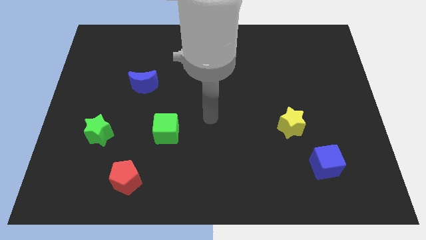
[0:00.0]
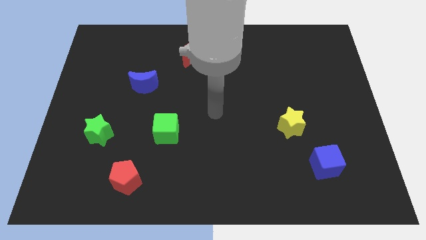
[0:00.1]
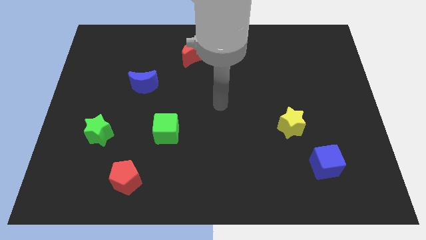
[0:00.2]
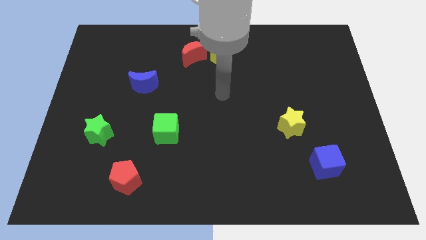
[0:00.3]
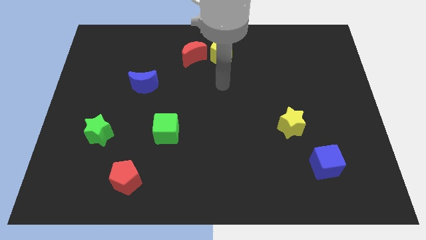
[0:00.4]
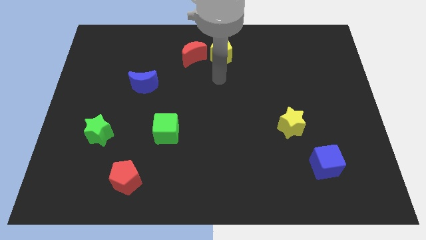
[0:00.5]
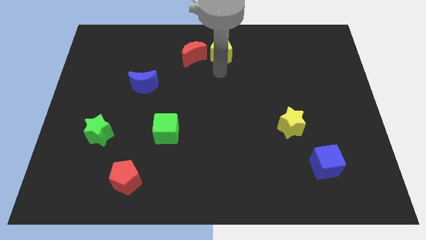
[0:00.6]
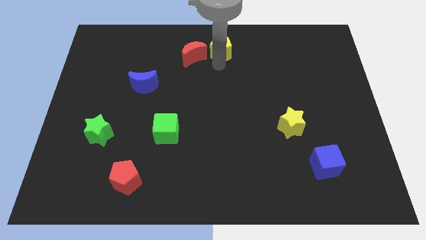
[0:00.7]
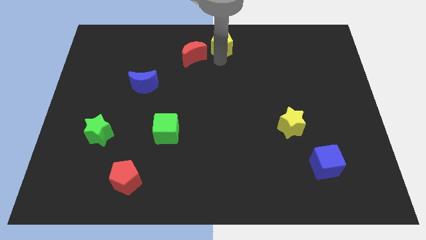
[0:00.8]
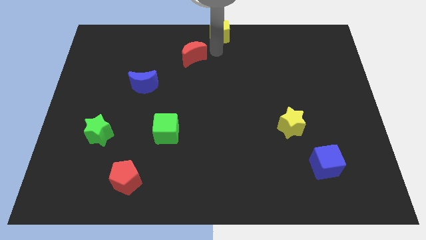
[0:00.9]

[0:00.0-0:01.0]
separate the red moon from the yellow pentagon

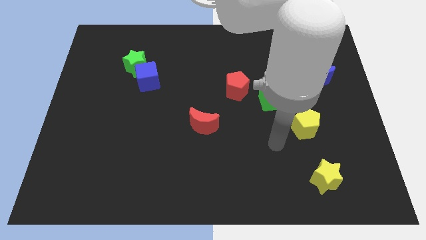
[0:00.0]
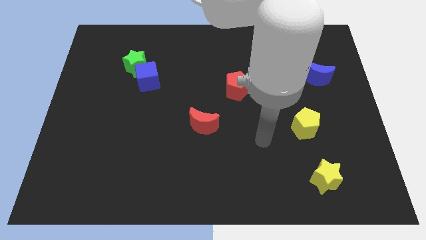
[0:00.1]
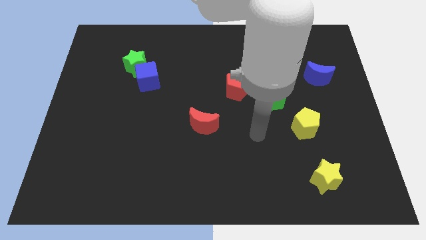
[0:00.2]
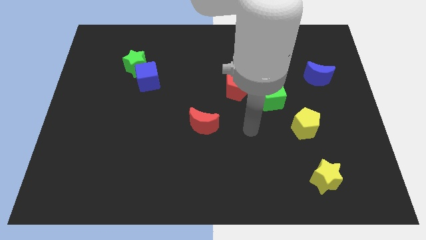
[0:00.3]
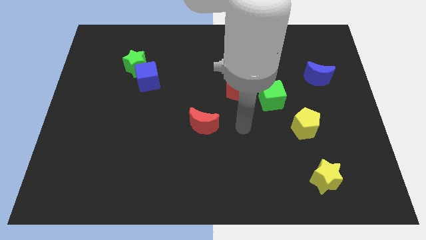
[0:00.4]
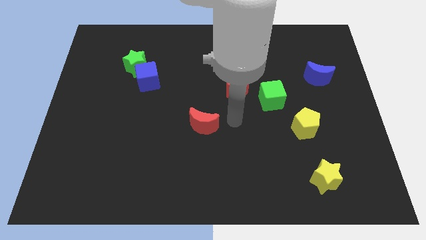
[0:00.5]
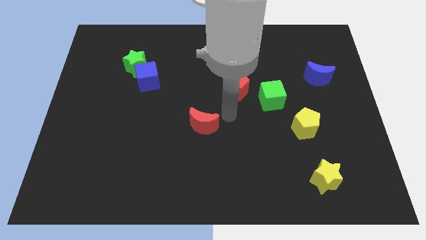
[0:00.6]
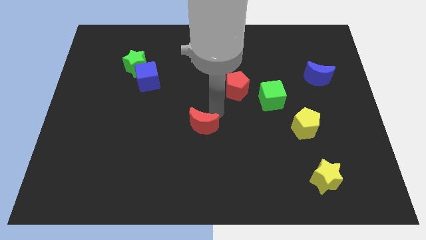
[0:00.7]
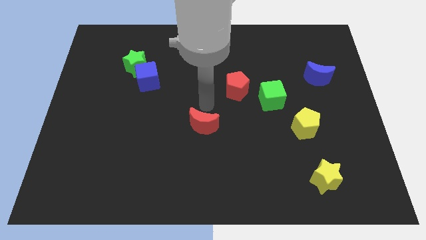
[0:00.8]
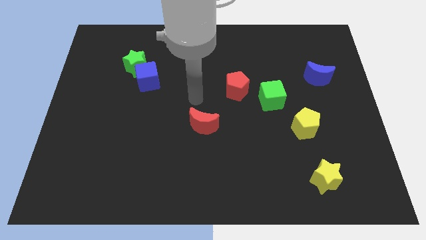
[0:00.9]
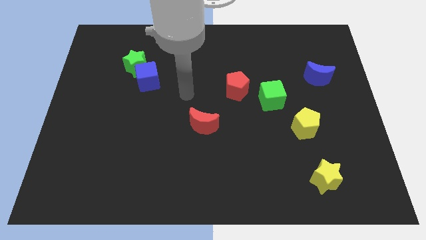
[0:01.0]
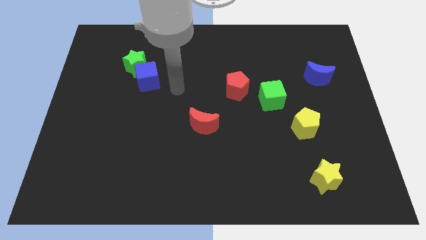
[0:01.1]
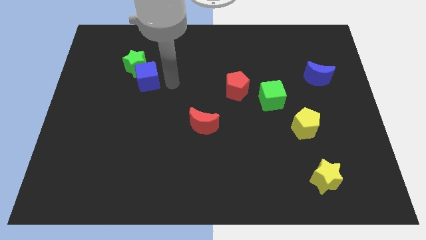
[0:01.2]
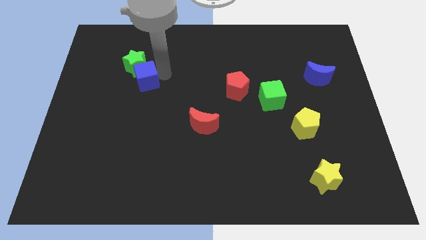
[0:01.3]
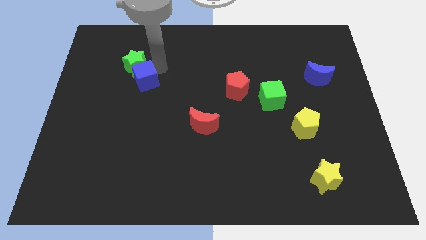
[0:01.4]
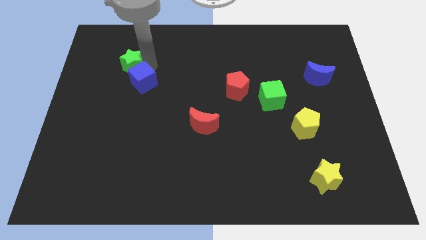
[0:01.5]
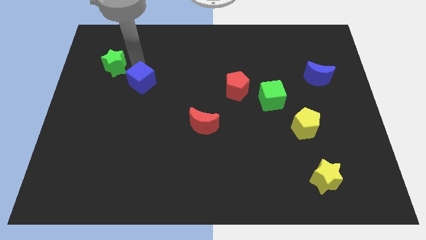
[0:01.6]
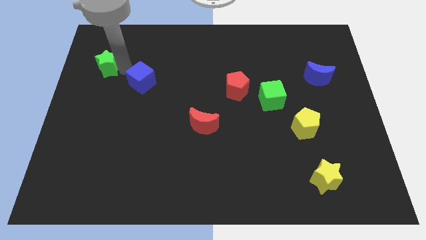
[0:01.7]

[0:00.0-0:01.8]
pull the blue cube apart from the green star

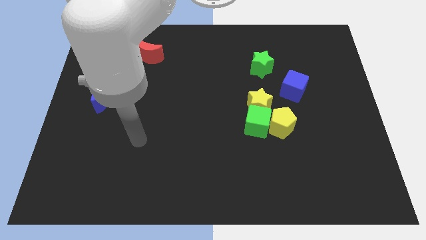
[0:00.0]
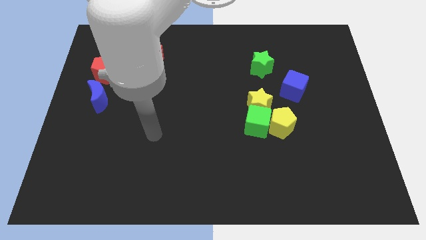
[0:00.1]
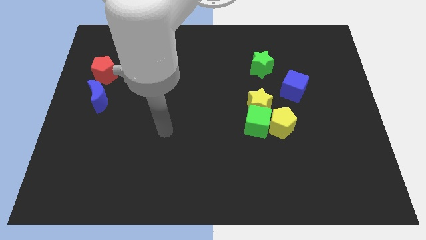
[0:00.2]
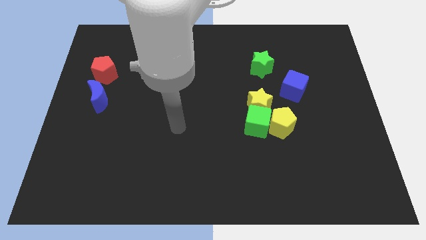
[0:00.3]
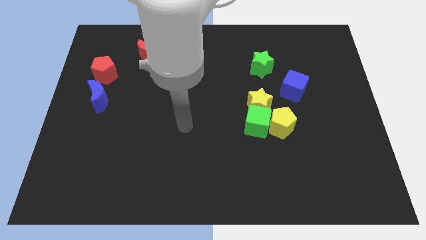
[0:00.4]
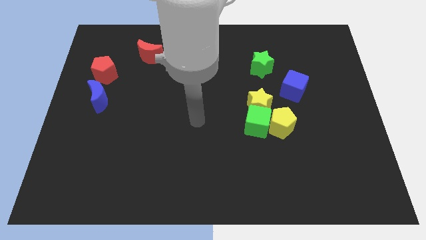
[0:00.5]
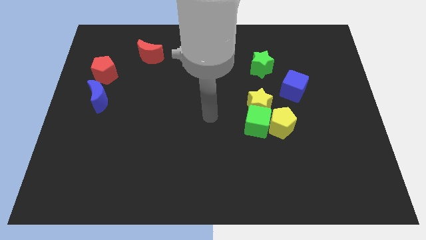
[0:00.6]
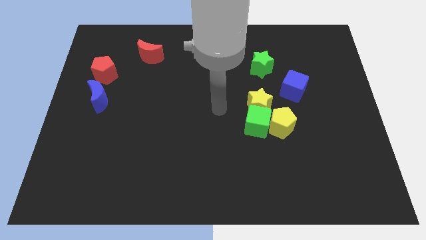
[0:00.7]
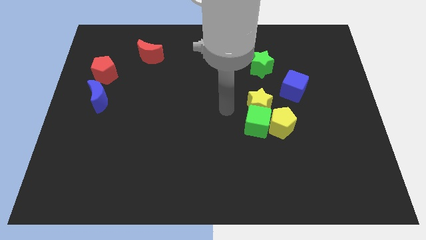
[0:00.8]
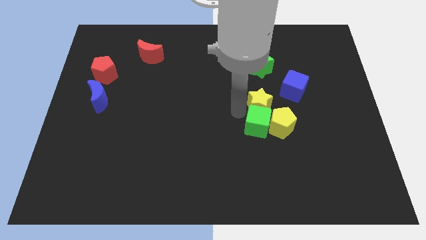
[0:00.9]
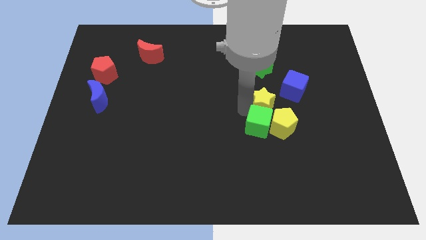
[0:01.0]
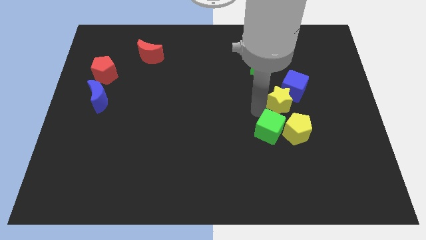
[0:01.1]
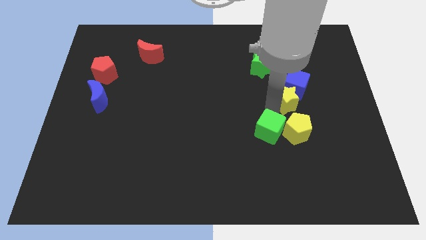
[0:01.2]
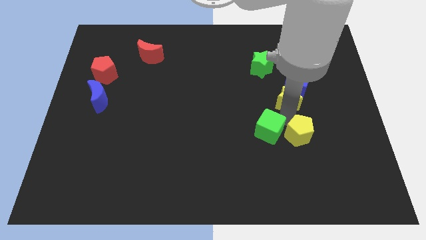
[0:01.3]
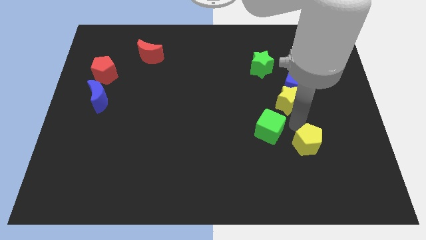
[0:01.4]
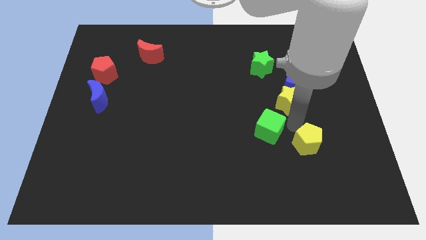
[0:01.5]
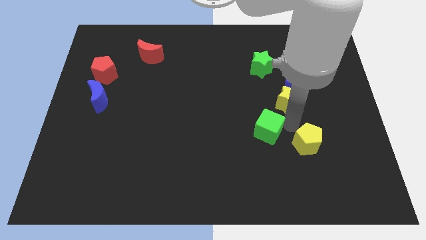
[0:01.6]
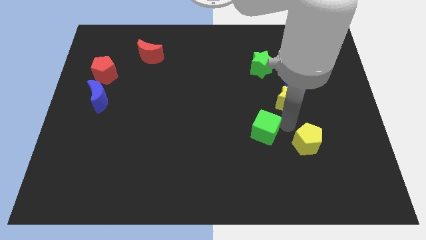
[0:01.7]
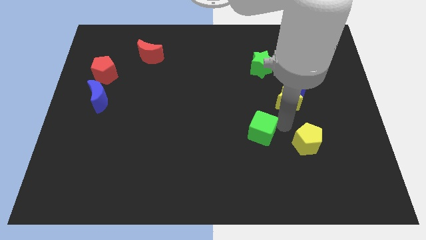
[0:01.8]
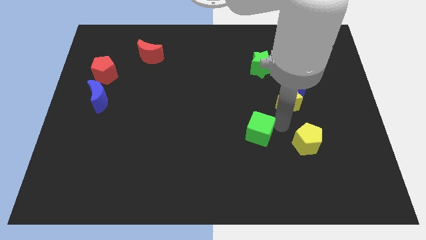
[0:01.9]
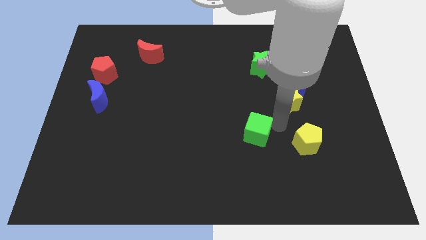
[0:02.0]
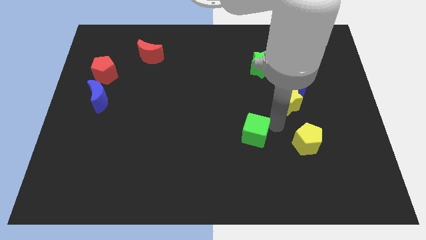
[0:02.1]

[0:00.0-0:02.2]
pull the green cube apart from the yellow pentagon and yellow star

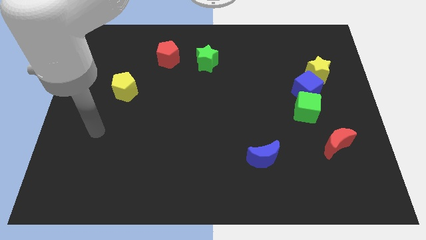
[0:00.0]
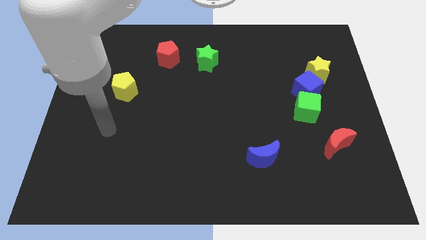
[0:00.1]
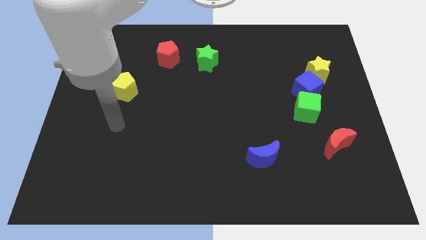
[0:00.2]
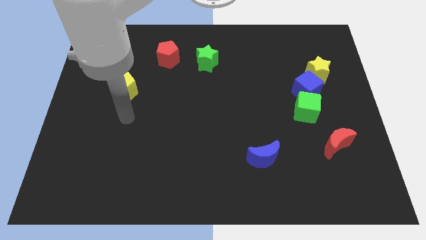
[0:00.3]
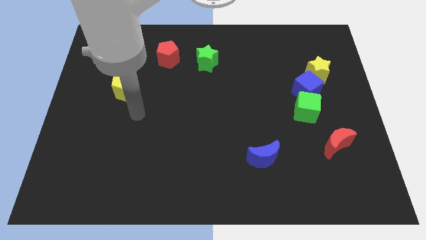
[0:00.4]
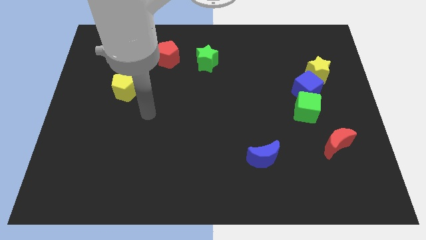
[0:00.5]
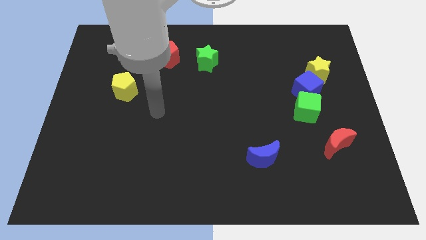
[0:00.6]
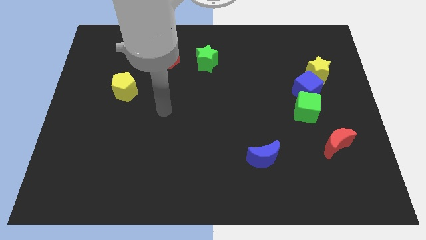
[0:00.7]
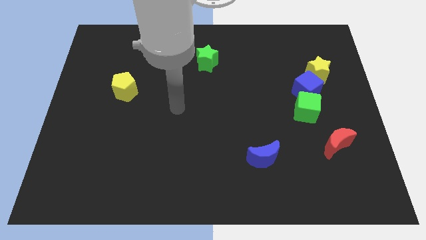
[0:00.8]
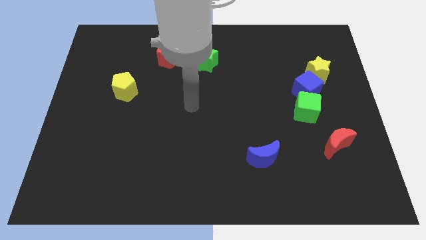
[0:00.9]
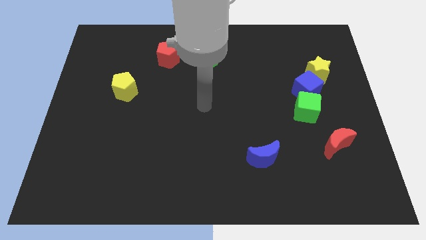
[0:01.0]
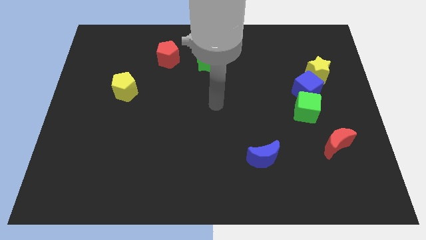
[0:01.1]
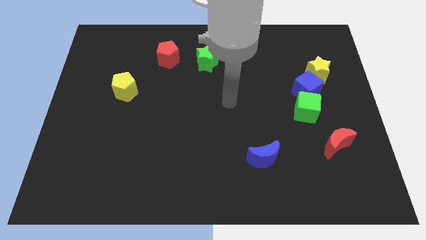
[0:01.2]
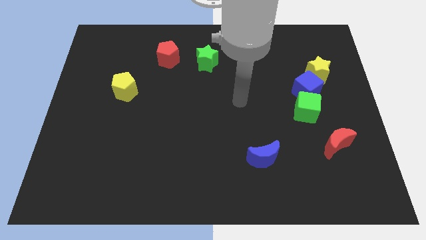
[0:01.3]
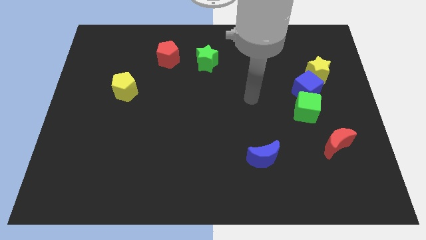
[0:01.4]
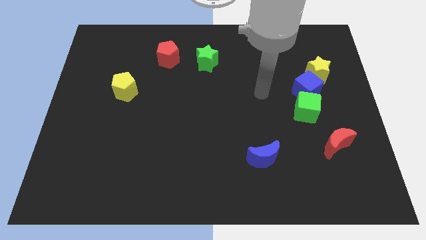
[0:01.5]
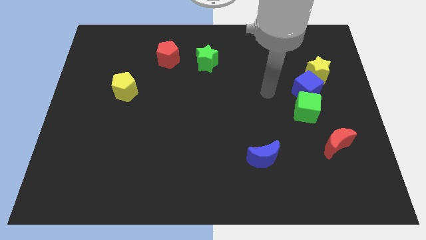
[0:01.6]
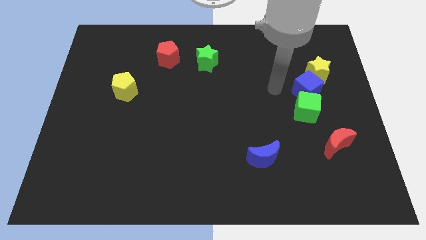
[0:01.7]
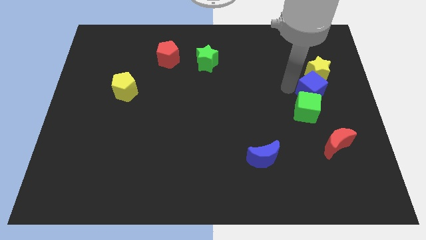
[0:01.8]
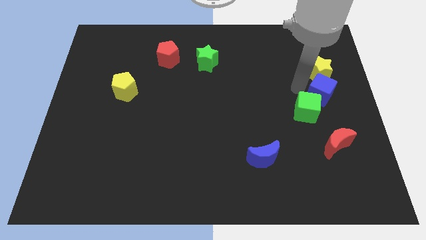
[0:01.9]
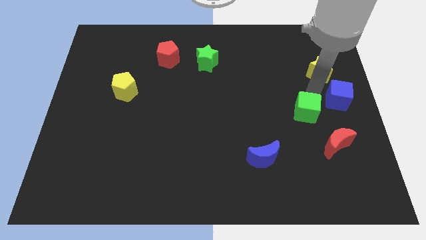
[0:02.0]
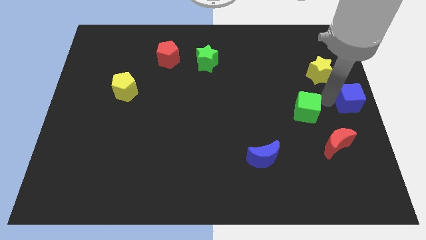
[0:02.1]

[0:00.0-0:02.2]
pull the green cube apart from the blue cube

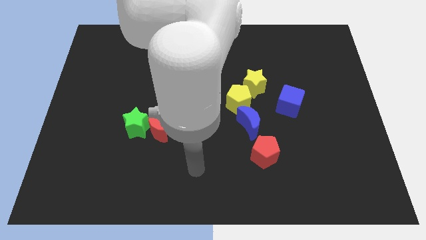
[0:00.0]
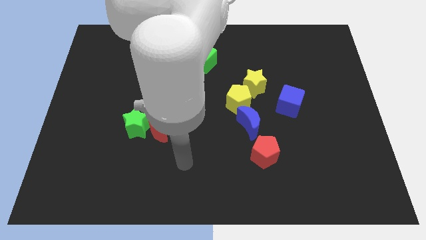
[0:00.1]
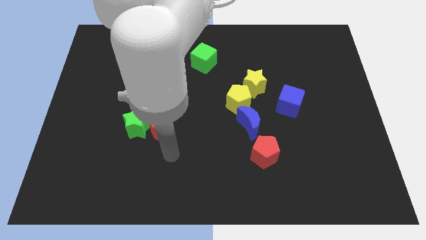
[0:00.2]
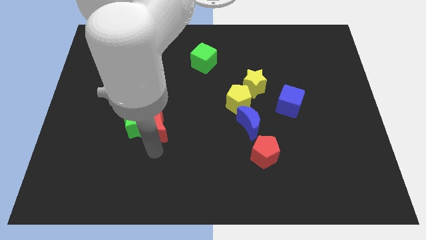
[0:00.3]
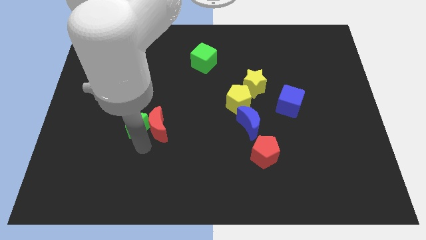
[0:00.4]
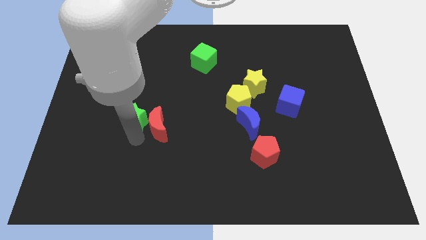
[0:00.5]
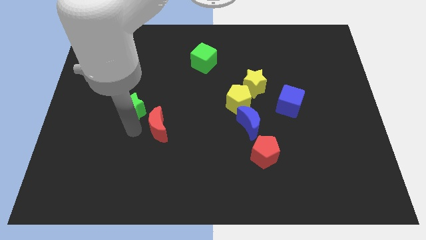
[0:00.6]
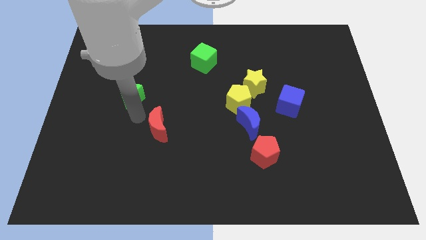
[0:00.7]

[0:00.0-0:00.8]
pull the red moon apart from the green star

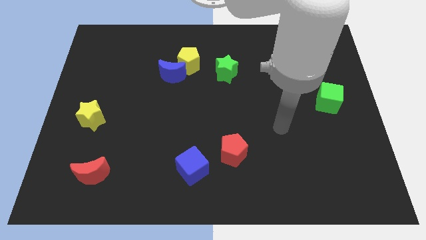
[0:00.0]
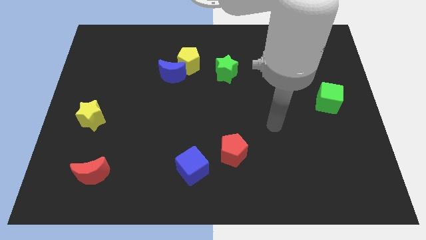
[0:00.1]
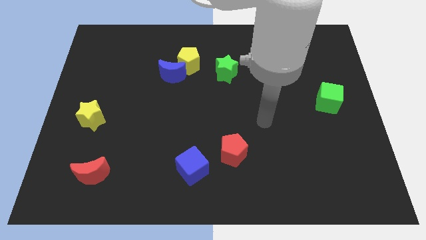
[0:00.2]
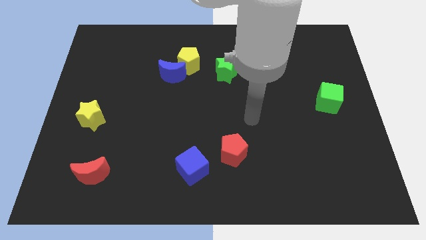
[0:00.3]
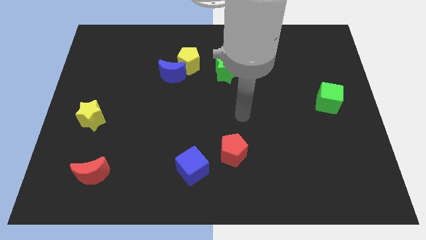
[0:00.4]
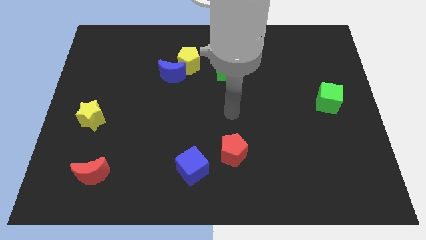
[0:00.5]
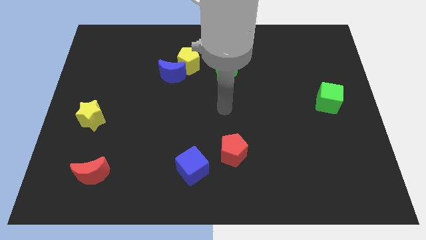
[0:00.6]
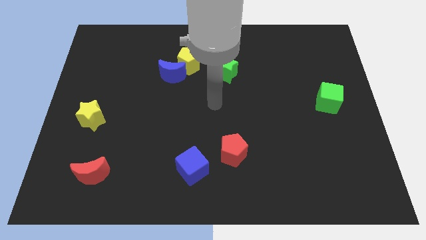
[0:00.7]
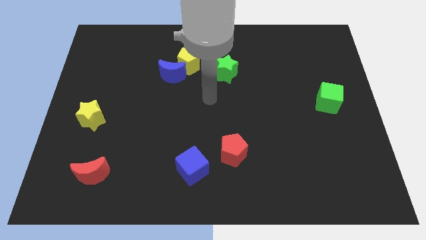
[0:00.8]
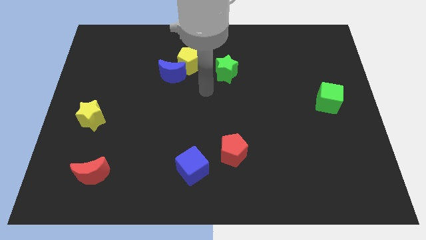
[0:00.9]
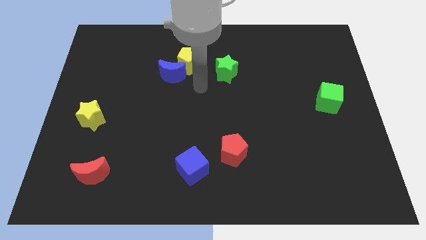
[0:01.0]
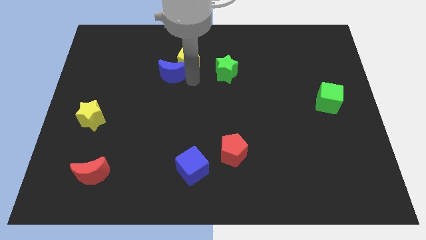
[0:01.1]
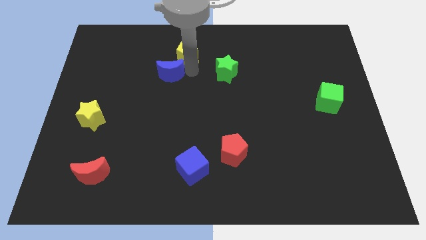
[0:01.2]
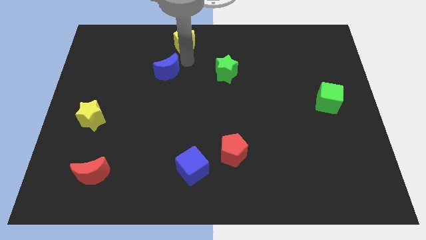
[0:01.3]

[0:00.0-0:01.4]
pull the blue moon apart from the yellow pentagon
